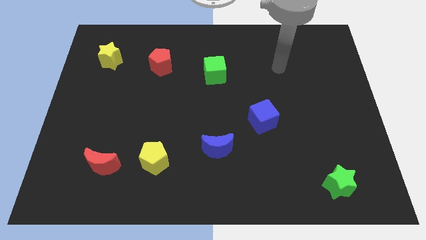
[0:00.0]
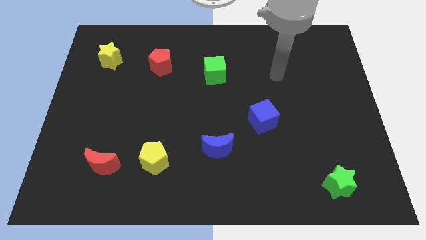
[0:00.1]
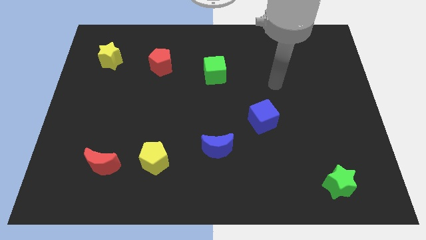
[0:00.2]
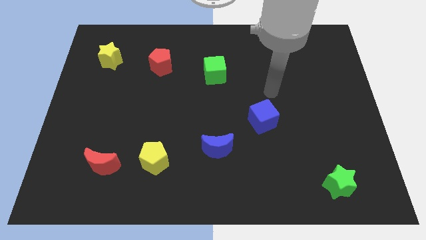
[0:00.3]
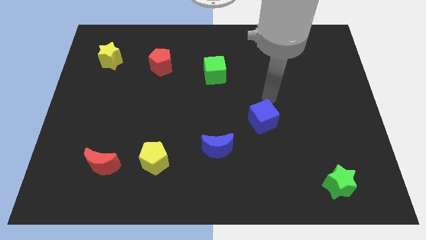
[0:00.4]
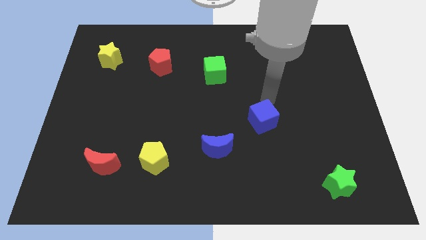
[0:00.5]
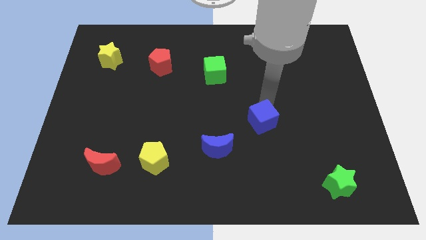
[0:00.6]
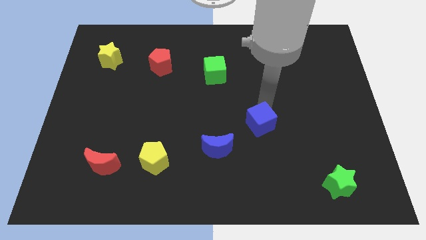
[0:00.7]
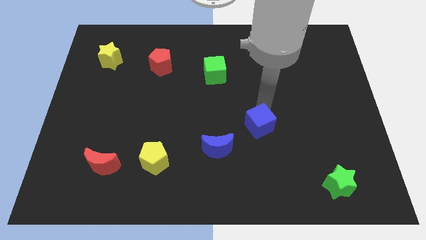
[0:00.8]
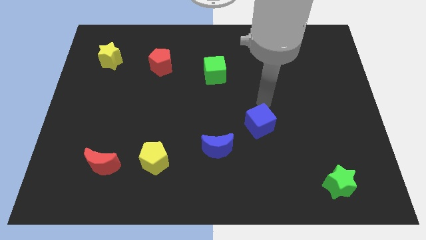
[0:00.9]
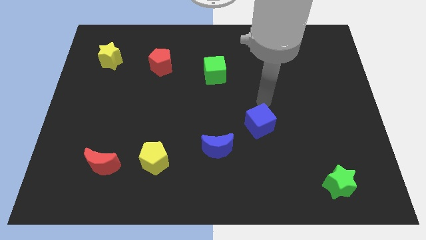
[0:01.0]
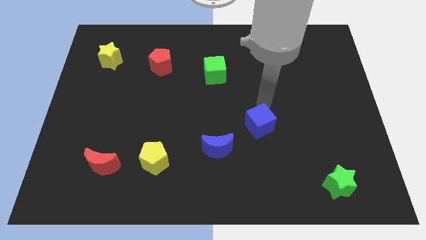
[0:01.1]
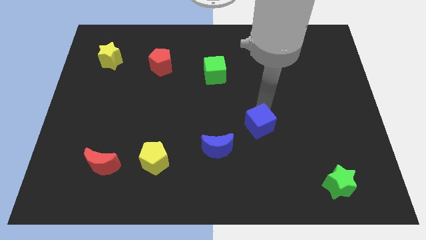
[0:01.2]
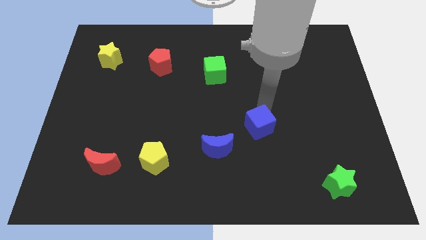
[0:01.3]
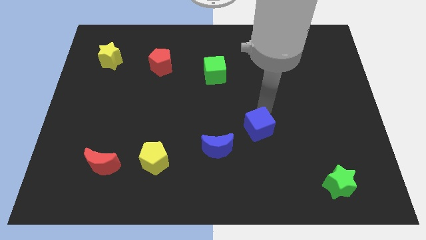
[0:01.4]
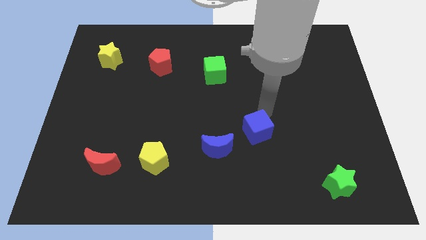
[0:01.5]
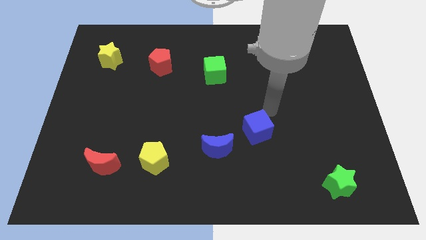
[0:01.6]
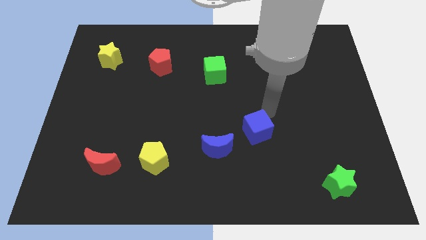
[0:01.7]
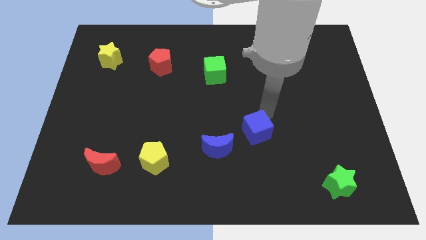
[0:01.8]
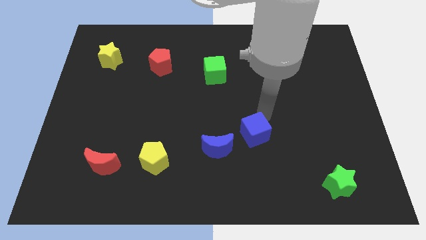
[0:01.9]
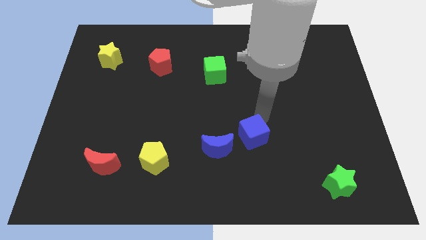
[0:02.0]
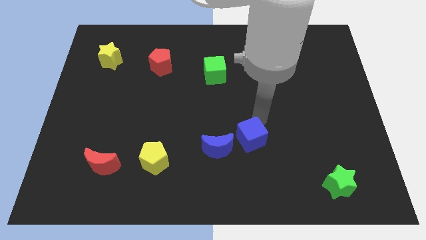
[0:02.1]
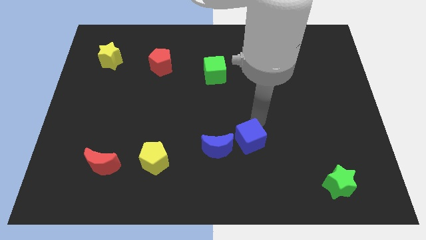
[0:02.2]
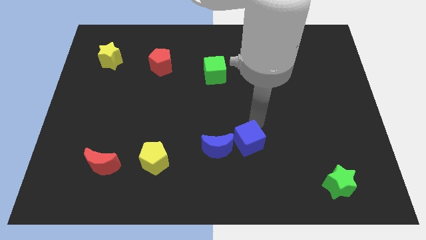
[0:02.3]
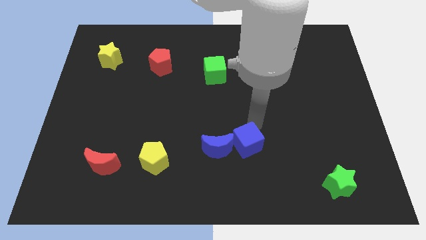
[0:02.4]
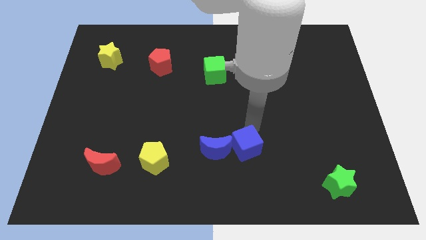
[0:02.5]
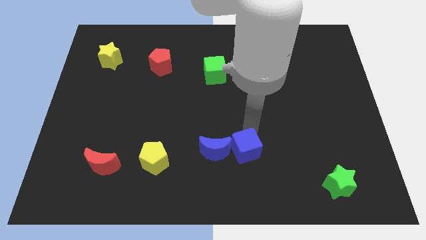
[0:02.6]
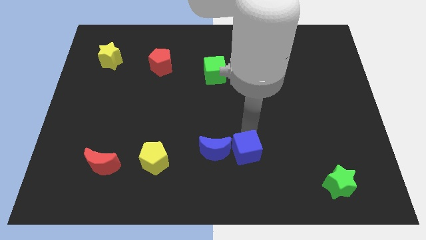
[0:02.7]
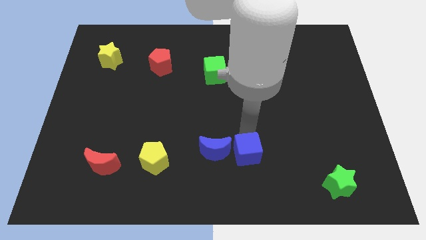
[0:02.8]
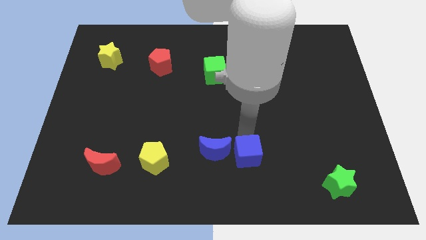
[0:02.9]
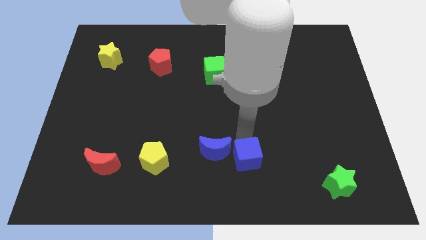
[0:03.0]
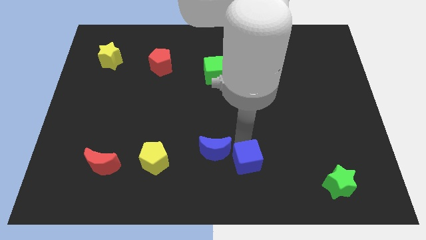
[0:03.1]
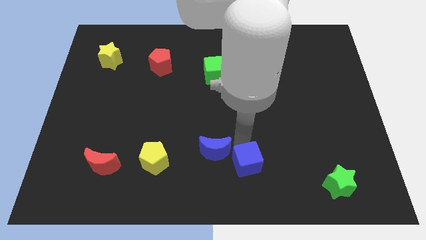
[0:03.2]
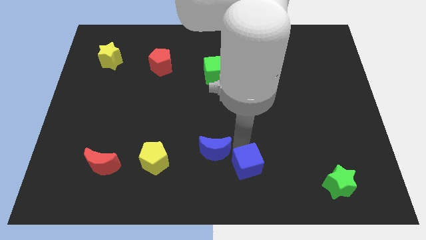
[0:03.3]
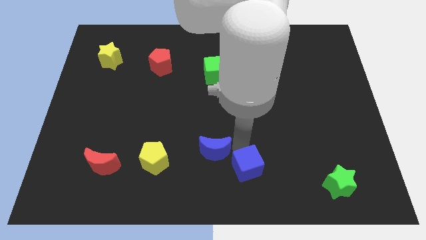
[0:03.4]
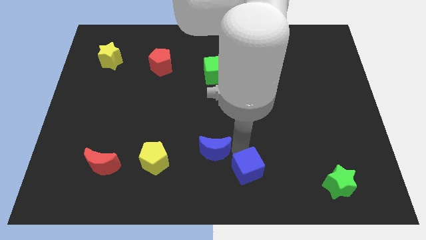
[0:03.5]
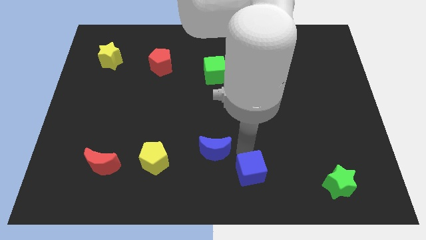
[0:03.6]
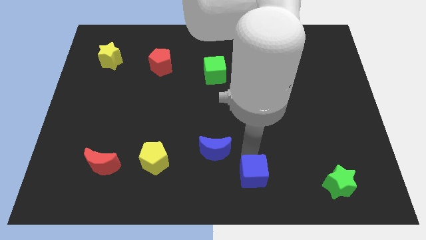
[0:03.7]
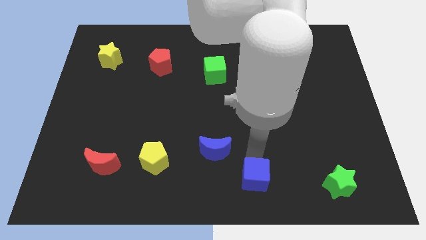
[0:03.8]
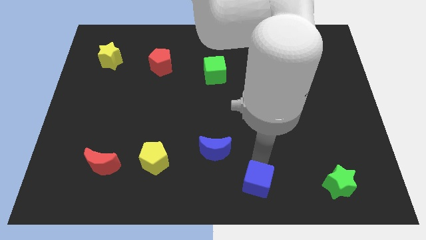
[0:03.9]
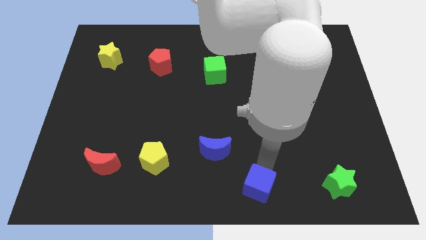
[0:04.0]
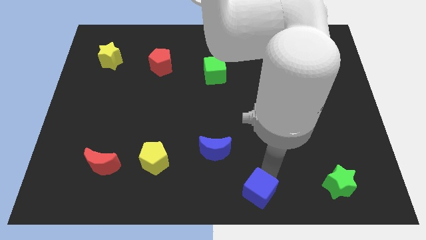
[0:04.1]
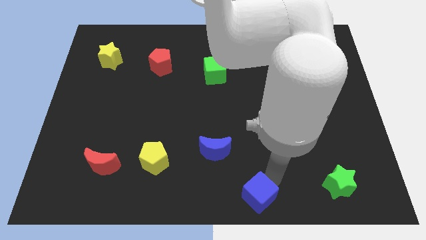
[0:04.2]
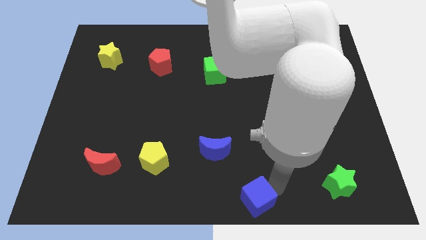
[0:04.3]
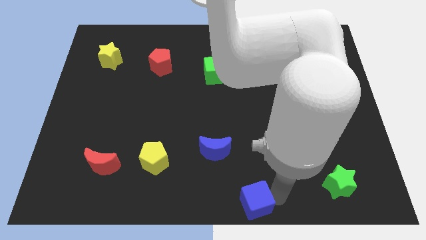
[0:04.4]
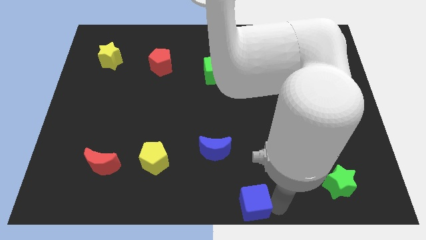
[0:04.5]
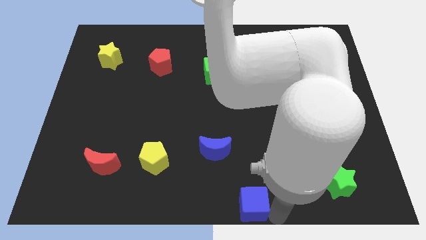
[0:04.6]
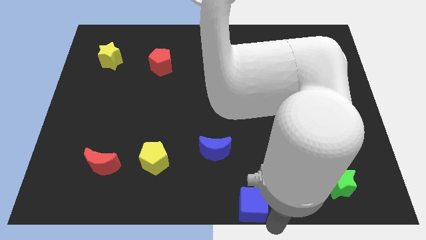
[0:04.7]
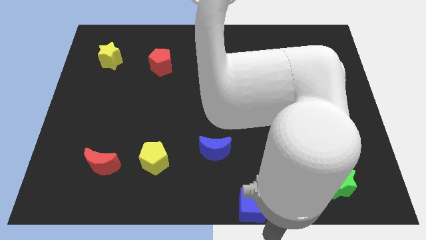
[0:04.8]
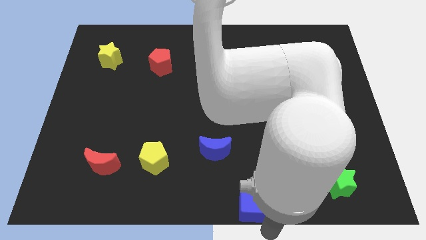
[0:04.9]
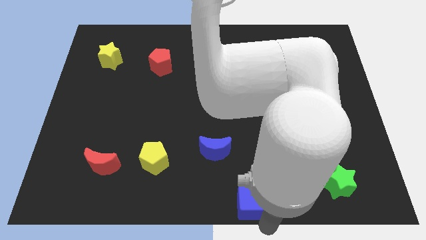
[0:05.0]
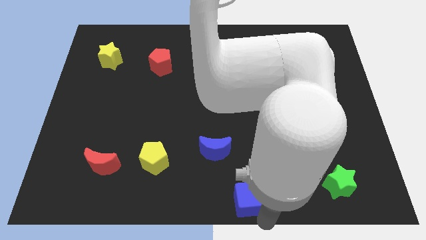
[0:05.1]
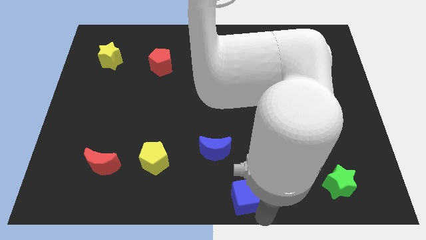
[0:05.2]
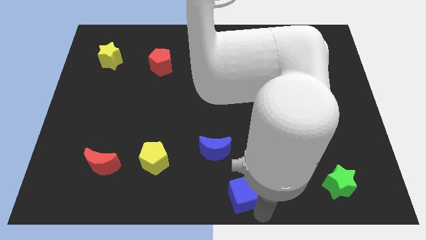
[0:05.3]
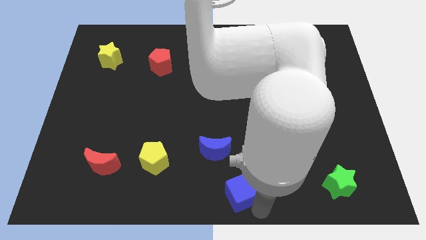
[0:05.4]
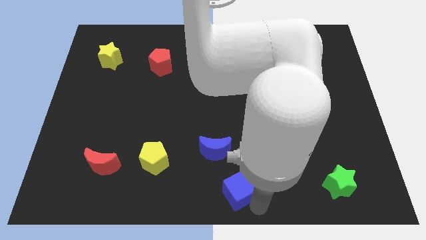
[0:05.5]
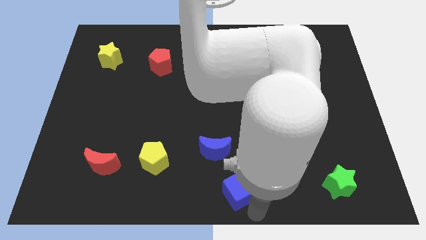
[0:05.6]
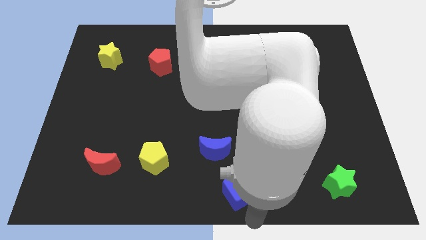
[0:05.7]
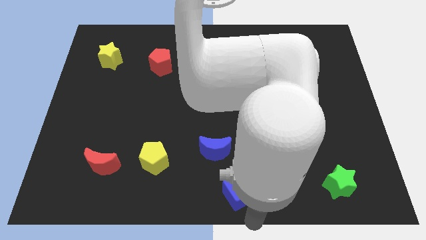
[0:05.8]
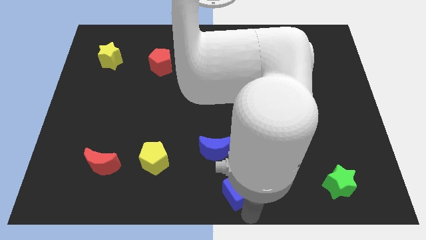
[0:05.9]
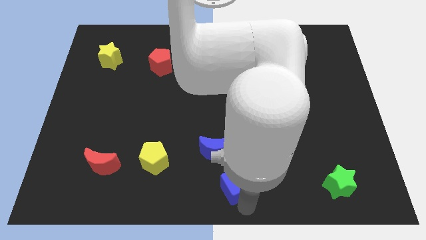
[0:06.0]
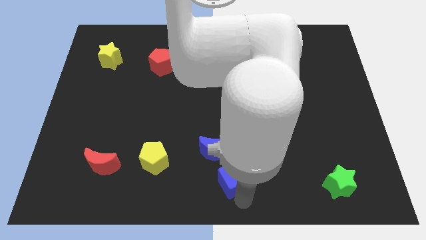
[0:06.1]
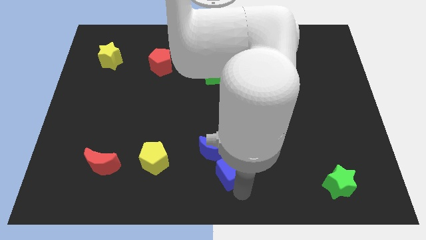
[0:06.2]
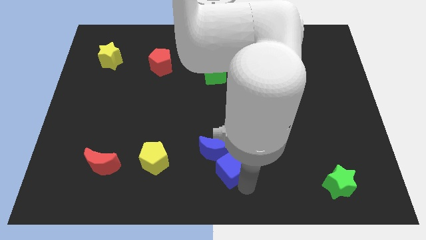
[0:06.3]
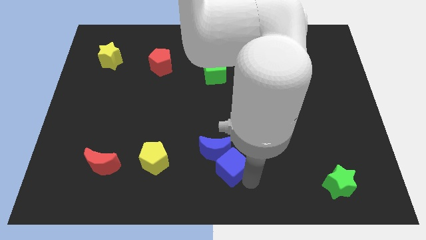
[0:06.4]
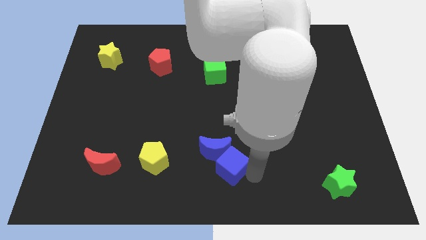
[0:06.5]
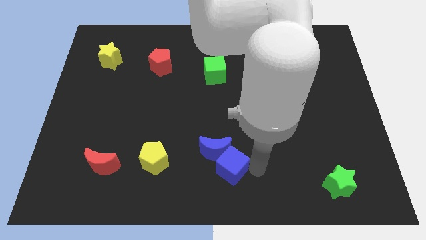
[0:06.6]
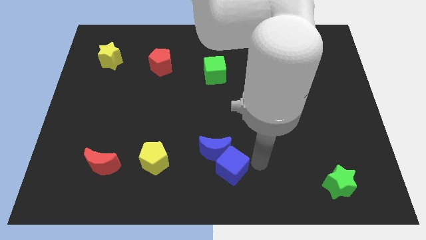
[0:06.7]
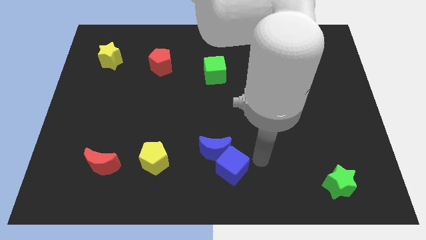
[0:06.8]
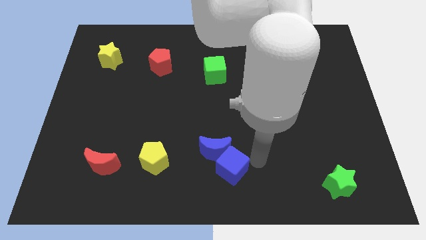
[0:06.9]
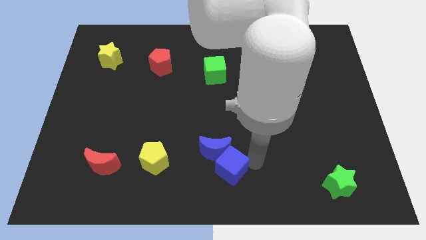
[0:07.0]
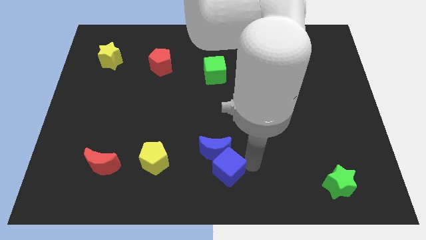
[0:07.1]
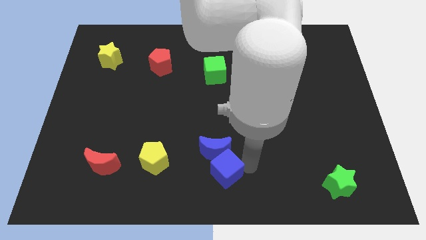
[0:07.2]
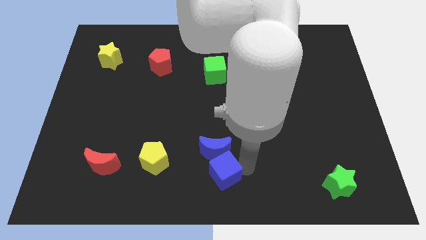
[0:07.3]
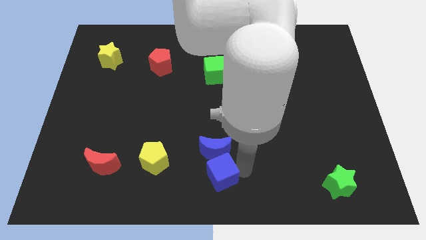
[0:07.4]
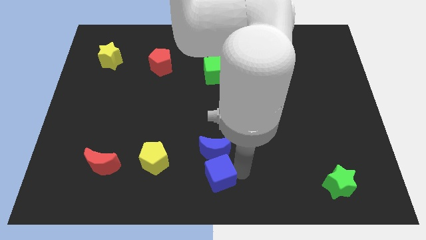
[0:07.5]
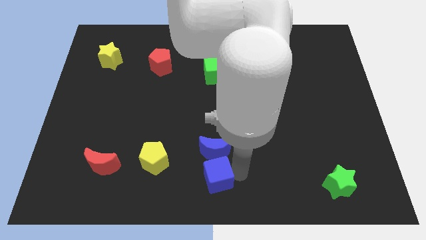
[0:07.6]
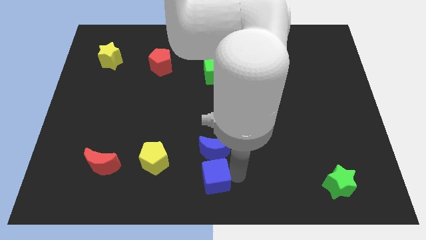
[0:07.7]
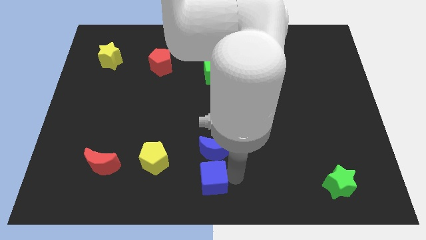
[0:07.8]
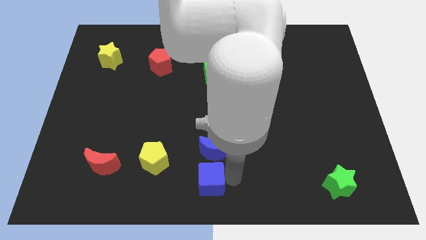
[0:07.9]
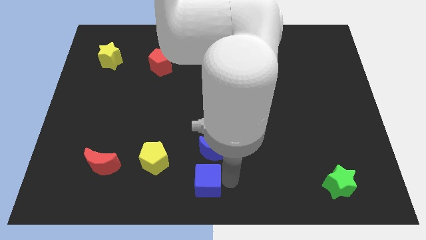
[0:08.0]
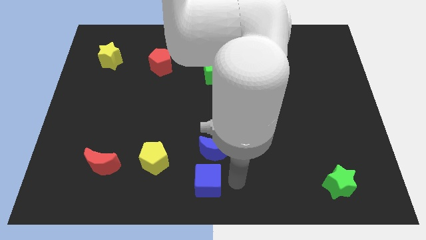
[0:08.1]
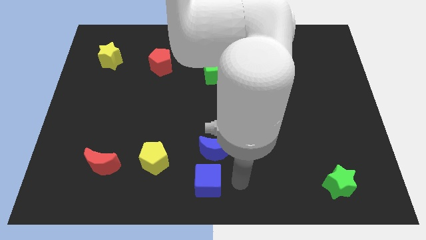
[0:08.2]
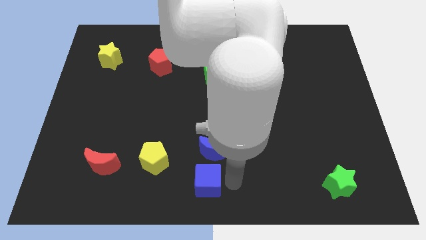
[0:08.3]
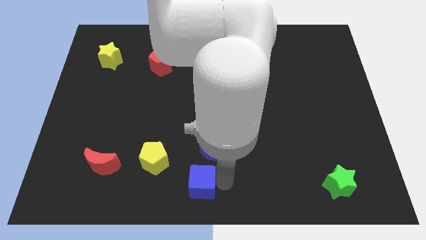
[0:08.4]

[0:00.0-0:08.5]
push the blue cube to the bottom right side of the yellow pentagon
